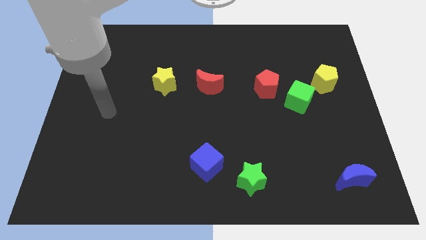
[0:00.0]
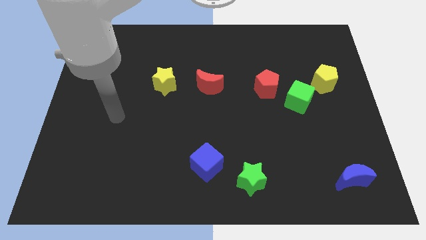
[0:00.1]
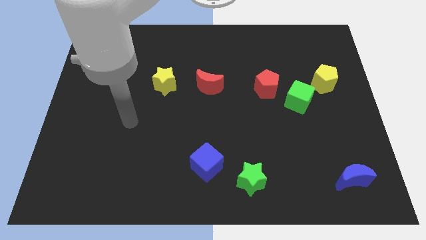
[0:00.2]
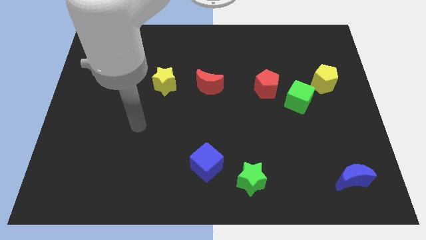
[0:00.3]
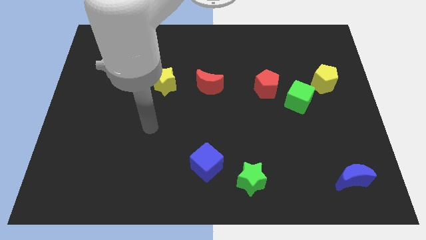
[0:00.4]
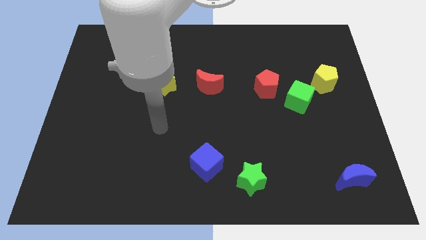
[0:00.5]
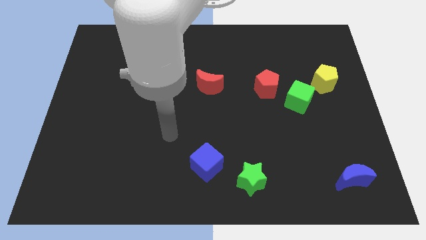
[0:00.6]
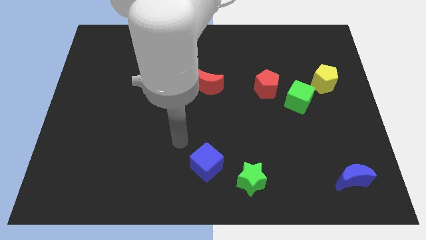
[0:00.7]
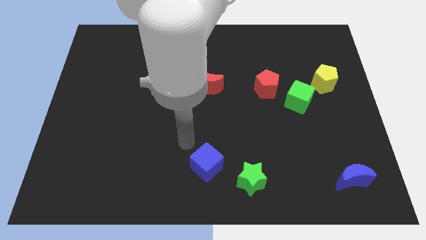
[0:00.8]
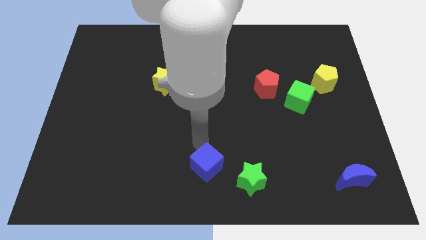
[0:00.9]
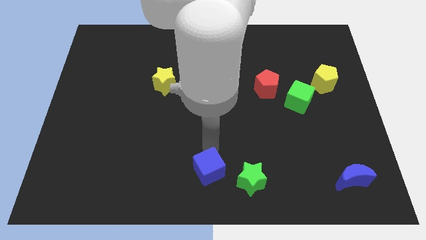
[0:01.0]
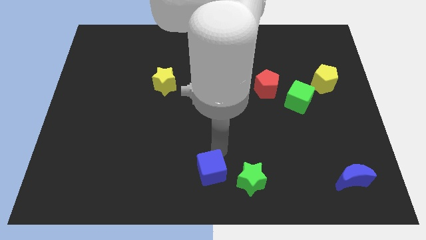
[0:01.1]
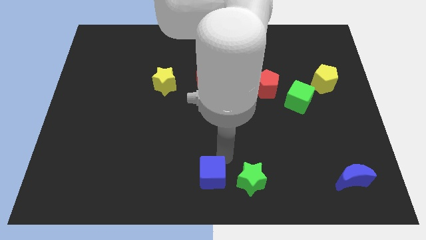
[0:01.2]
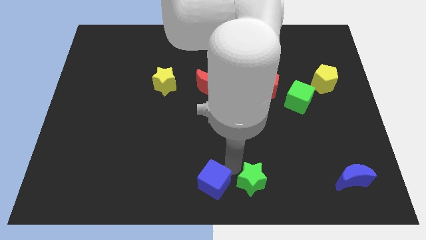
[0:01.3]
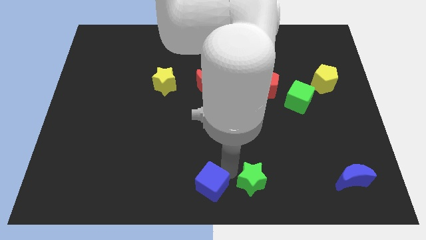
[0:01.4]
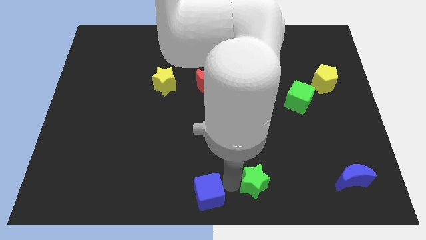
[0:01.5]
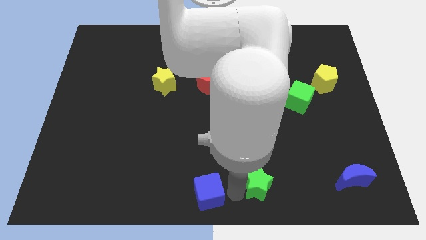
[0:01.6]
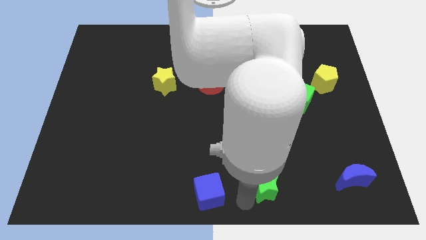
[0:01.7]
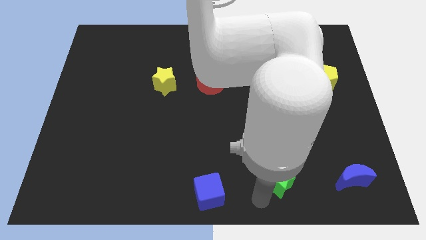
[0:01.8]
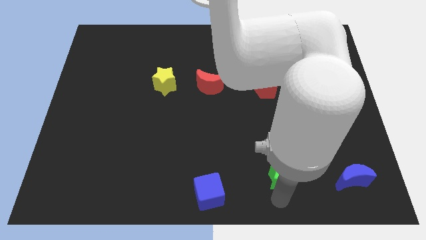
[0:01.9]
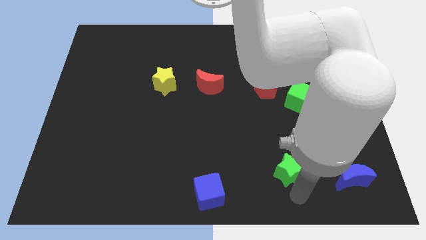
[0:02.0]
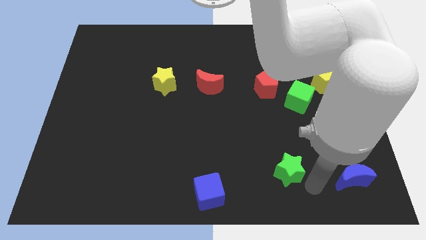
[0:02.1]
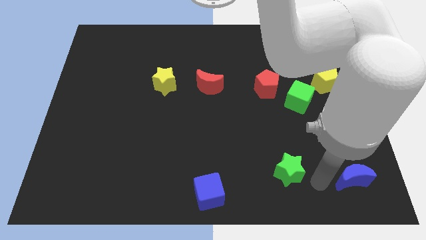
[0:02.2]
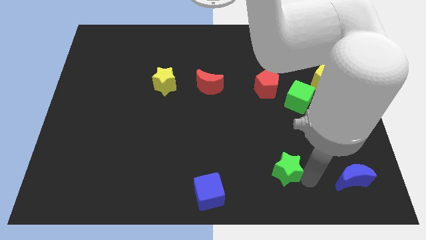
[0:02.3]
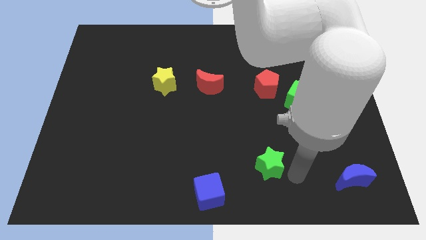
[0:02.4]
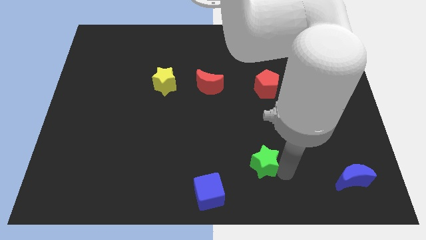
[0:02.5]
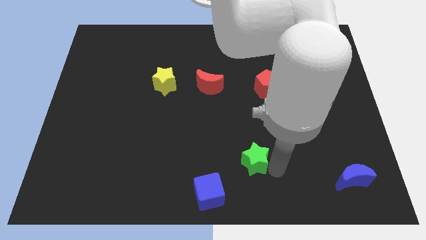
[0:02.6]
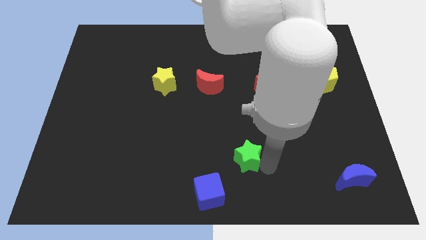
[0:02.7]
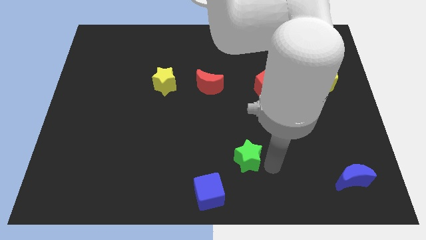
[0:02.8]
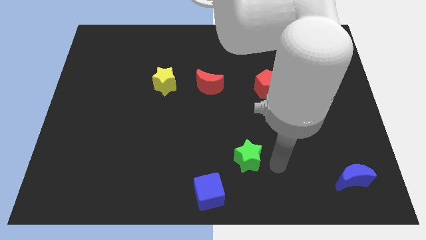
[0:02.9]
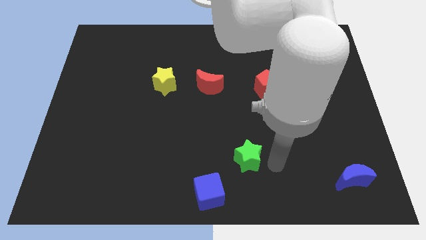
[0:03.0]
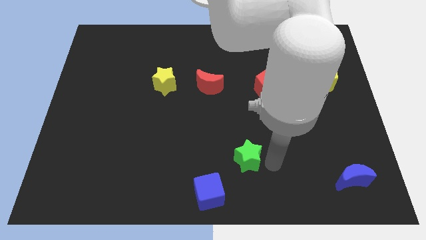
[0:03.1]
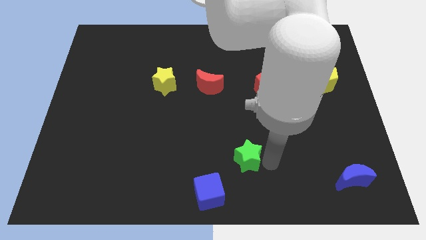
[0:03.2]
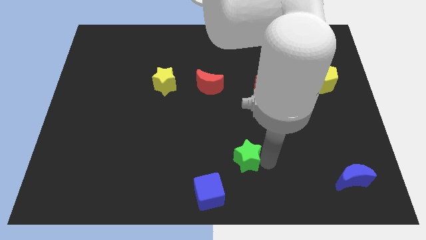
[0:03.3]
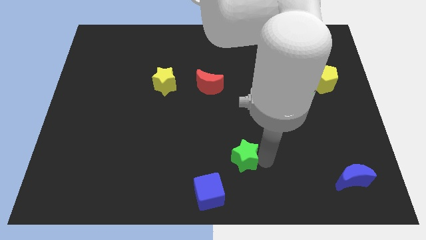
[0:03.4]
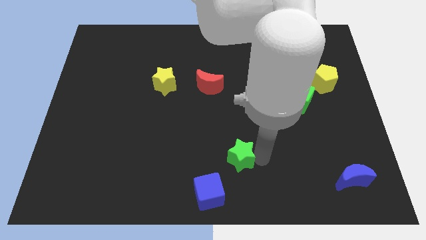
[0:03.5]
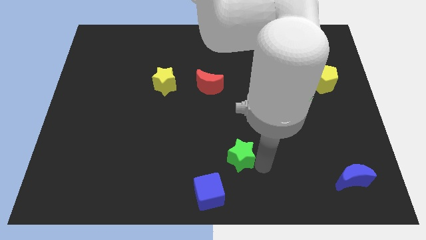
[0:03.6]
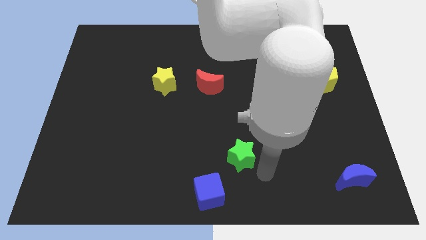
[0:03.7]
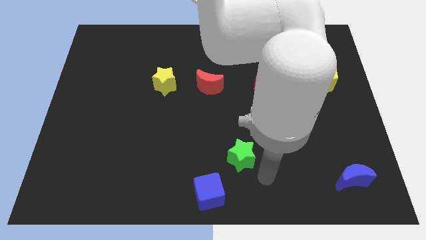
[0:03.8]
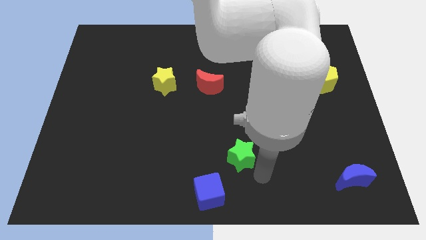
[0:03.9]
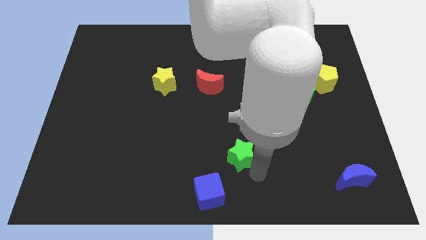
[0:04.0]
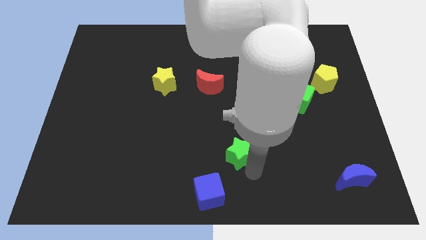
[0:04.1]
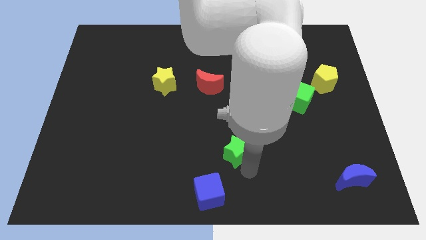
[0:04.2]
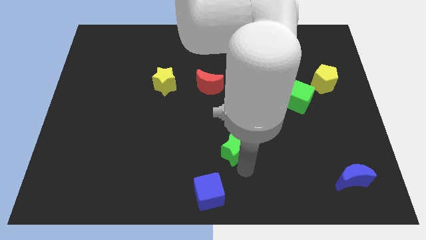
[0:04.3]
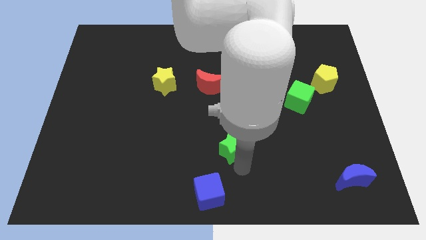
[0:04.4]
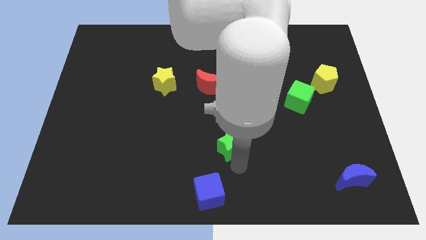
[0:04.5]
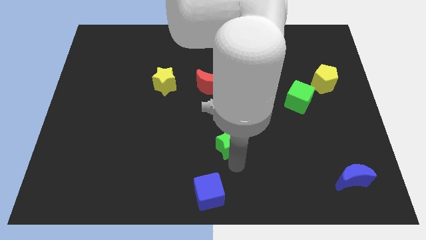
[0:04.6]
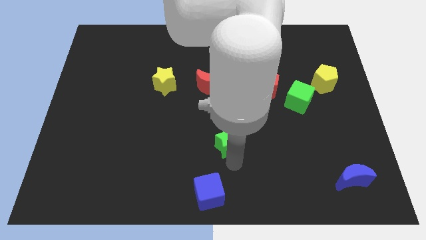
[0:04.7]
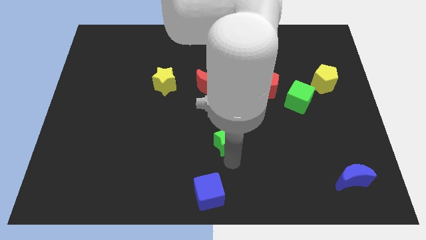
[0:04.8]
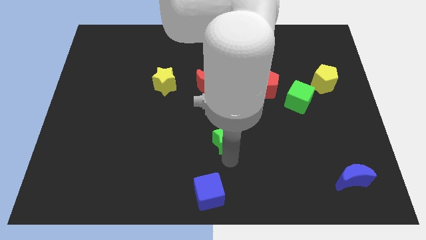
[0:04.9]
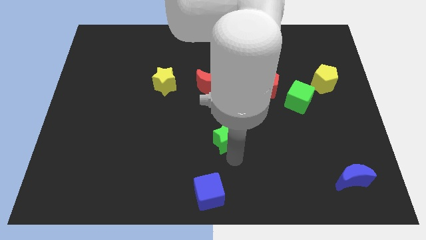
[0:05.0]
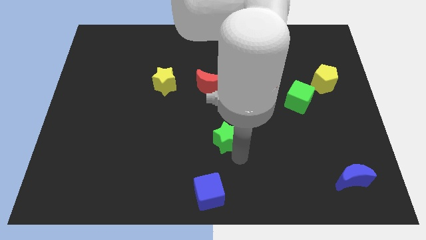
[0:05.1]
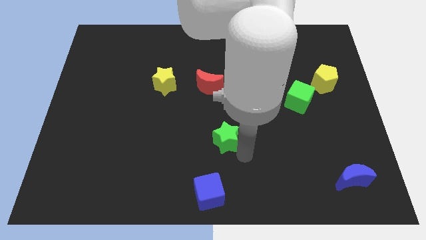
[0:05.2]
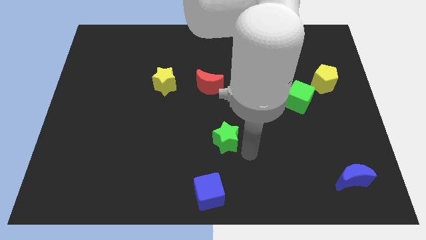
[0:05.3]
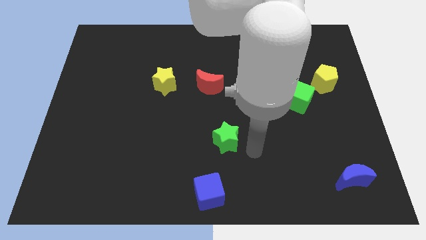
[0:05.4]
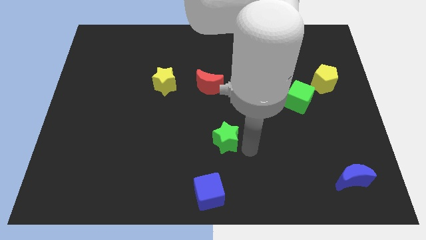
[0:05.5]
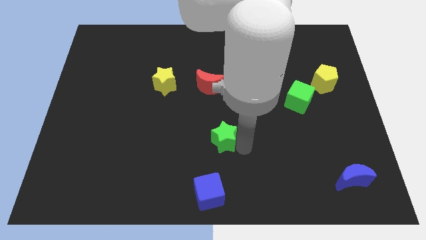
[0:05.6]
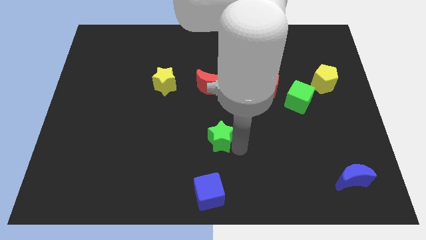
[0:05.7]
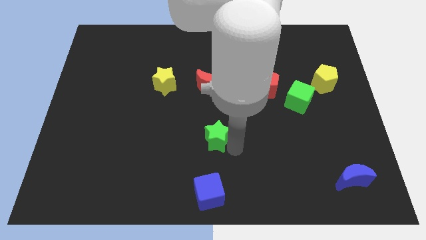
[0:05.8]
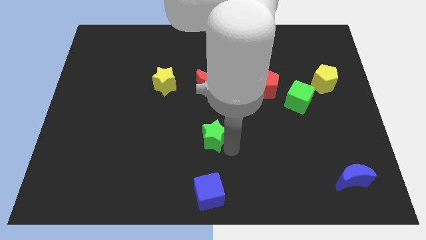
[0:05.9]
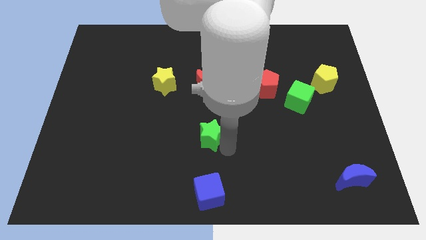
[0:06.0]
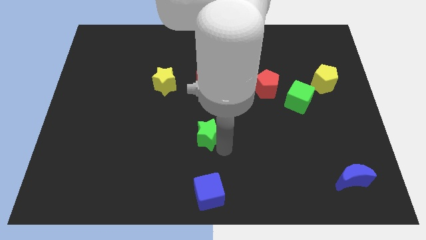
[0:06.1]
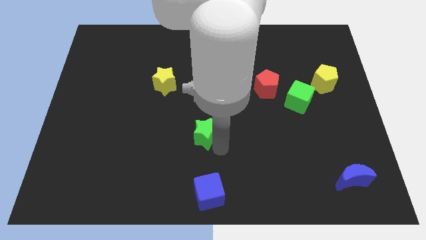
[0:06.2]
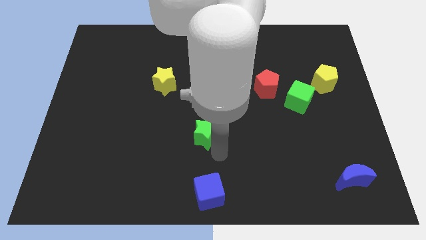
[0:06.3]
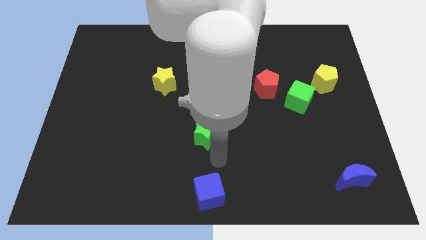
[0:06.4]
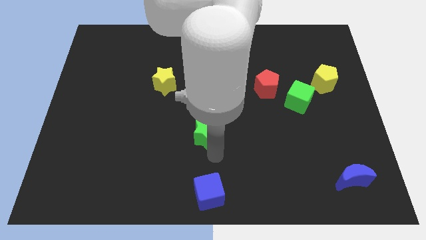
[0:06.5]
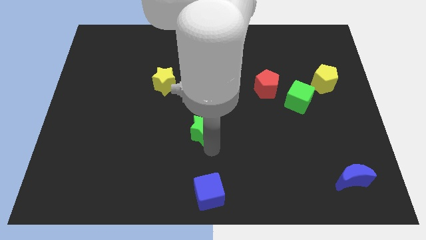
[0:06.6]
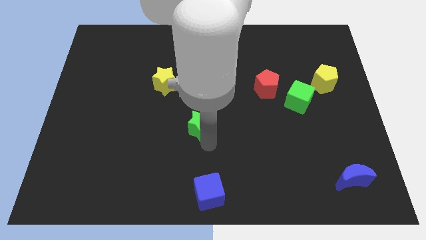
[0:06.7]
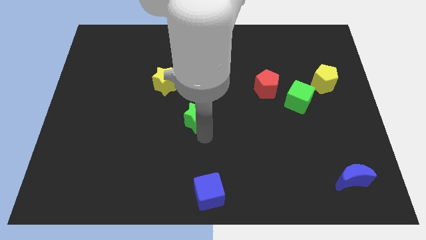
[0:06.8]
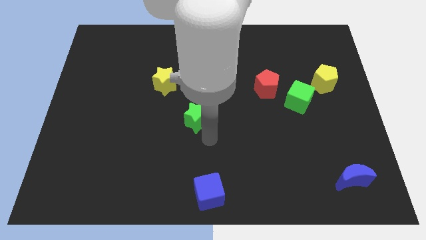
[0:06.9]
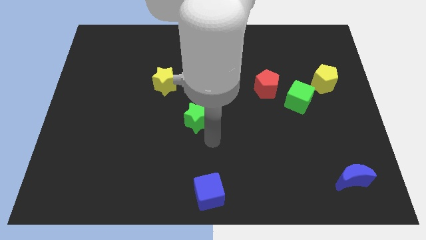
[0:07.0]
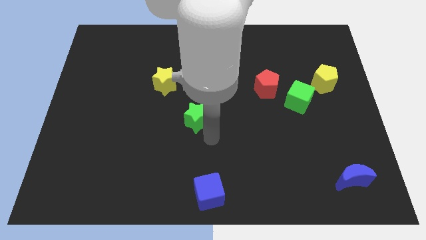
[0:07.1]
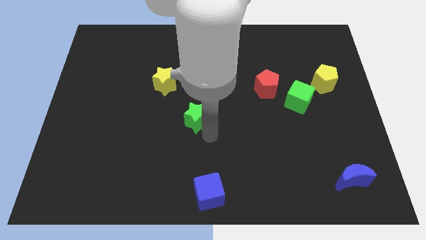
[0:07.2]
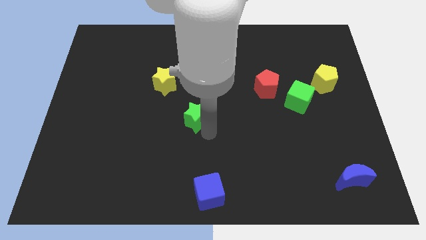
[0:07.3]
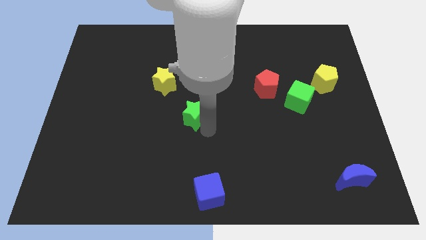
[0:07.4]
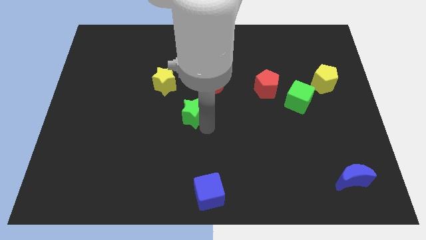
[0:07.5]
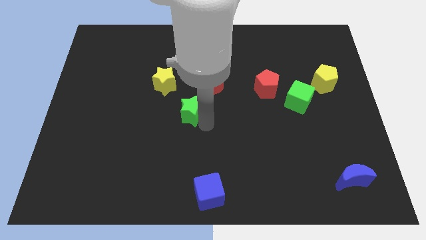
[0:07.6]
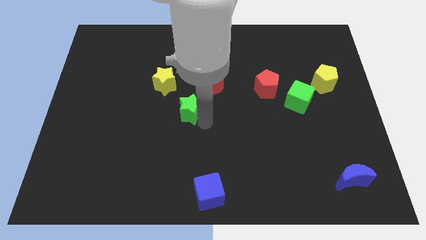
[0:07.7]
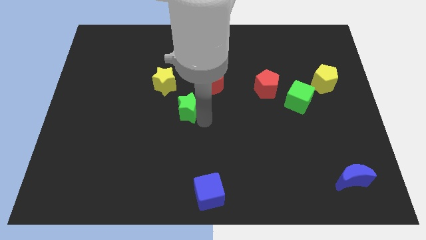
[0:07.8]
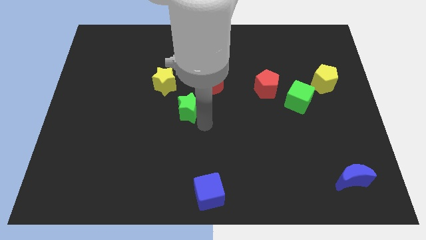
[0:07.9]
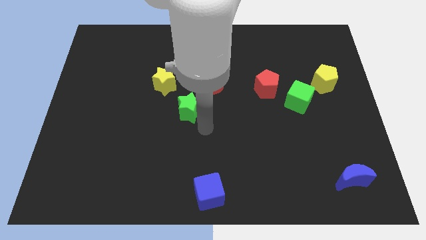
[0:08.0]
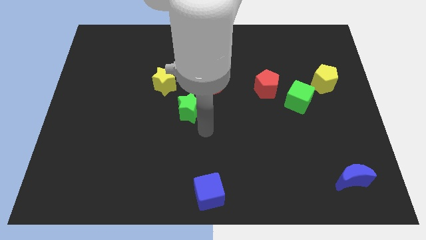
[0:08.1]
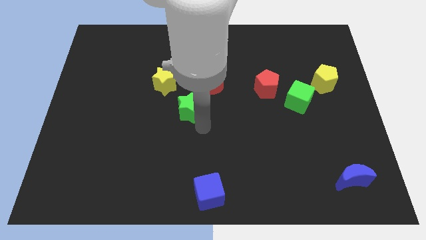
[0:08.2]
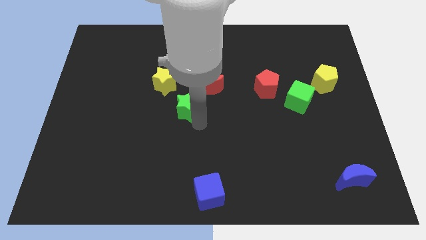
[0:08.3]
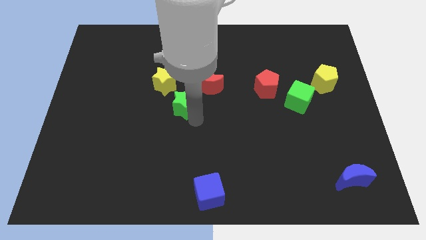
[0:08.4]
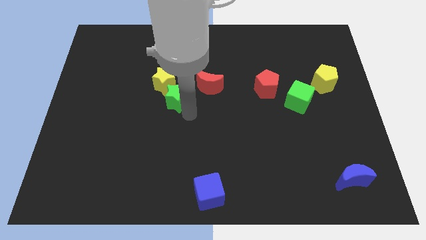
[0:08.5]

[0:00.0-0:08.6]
slide the green star close to the yellow star
